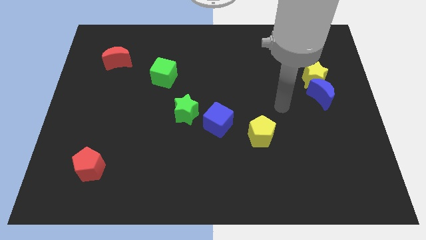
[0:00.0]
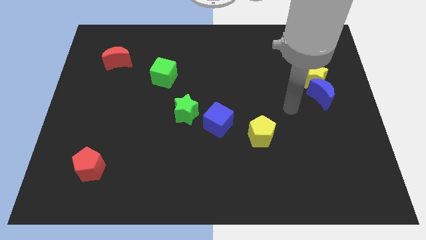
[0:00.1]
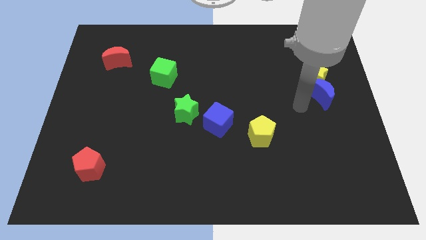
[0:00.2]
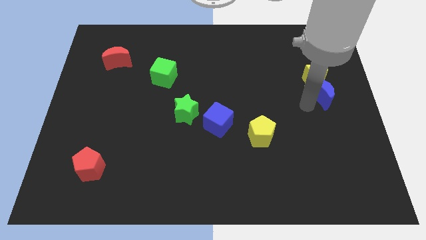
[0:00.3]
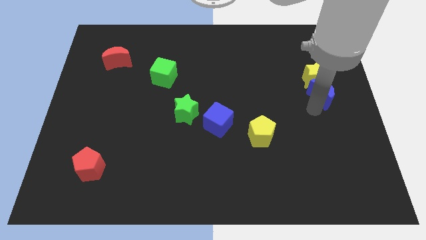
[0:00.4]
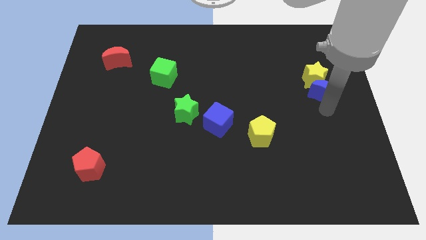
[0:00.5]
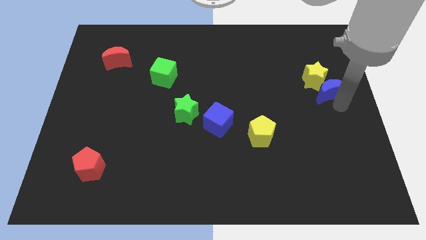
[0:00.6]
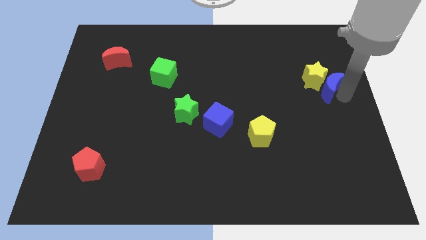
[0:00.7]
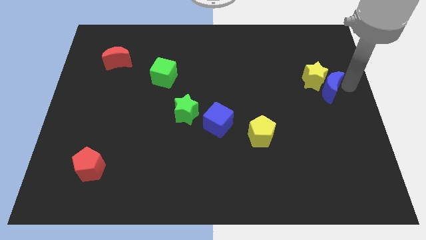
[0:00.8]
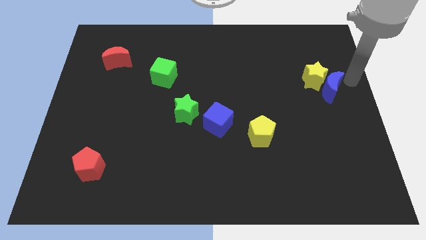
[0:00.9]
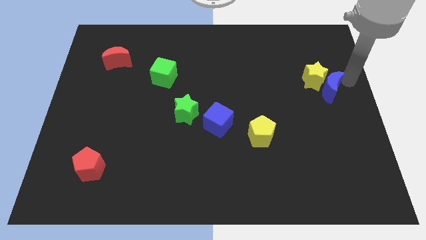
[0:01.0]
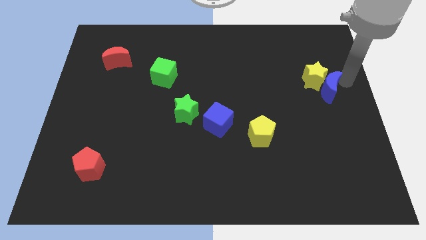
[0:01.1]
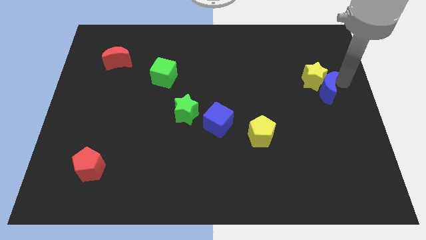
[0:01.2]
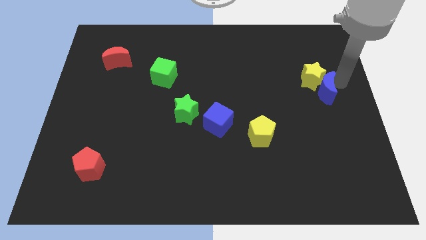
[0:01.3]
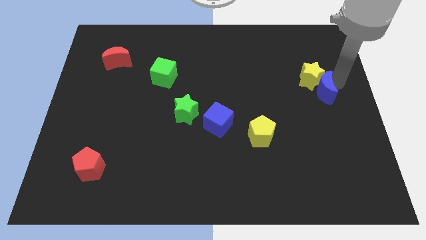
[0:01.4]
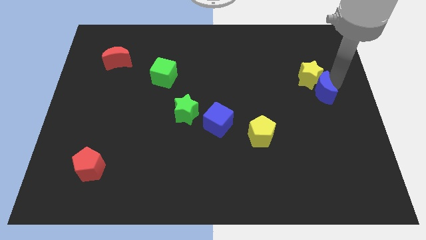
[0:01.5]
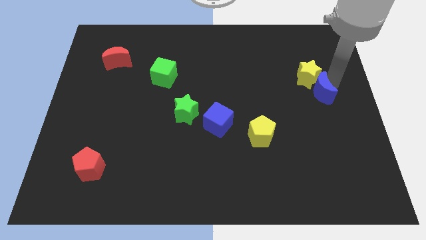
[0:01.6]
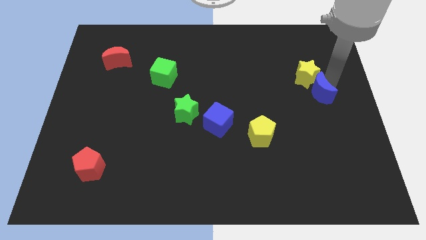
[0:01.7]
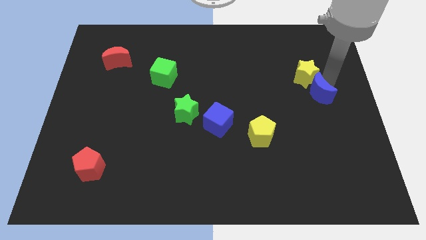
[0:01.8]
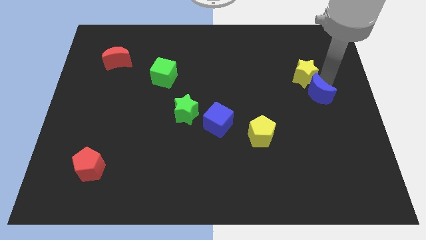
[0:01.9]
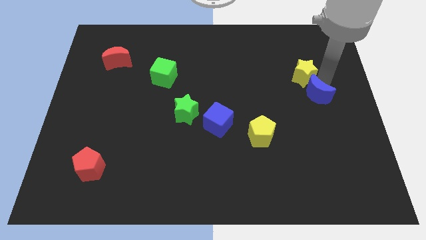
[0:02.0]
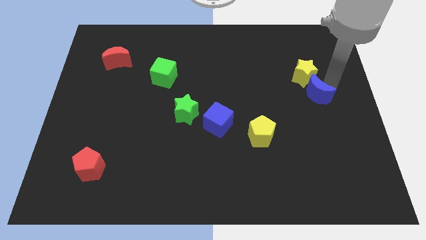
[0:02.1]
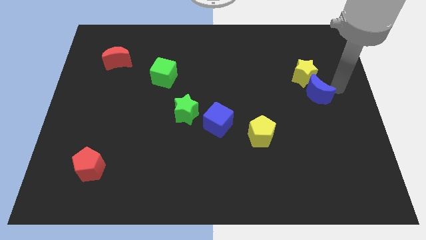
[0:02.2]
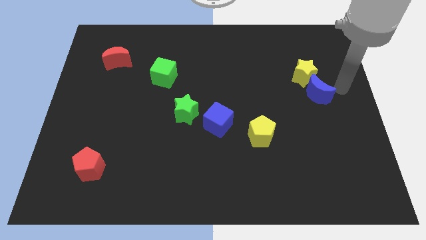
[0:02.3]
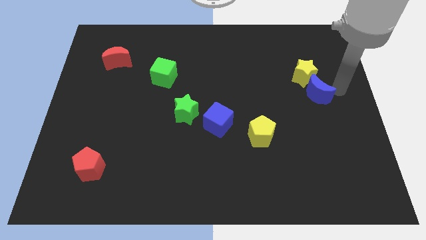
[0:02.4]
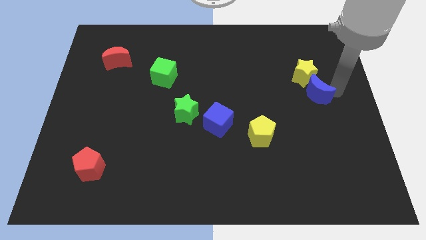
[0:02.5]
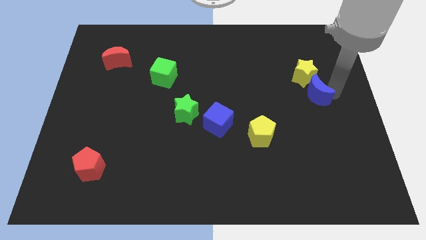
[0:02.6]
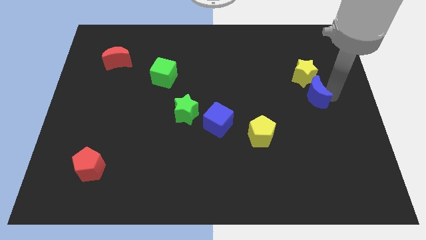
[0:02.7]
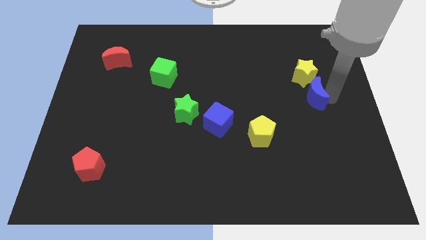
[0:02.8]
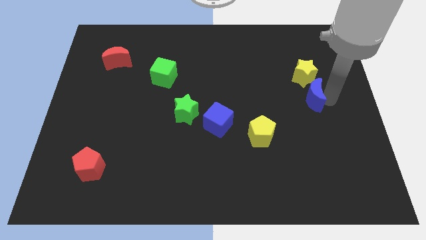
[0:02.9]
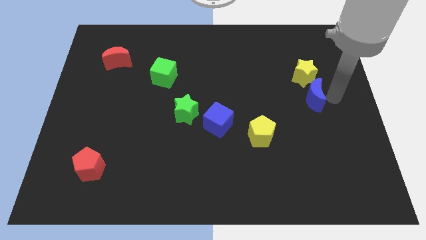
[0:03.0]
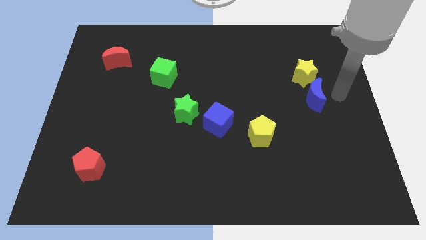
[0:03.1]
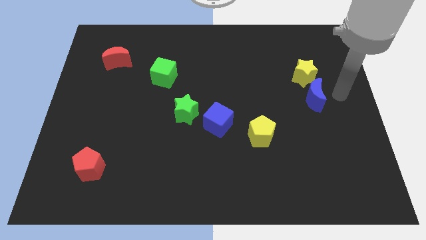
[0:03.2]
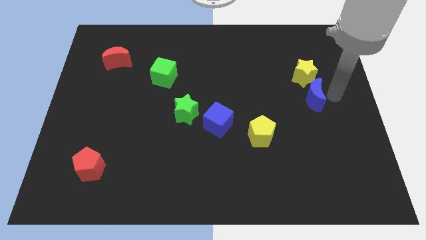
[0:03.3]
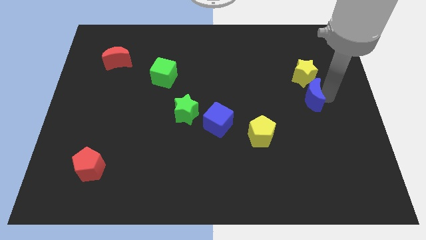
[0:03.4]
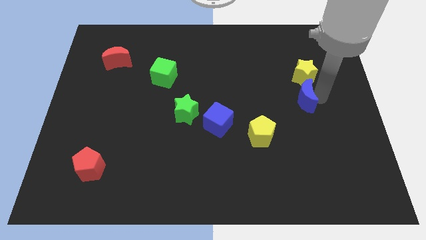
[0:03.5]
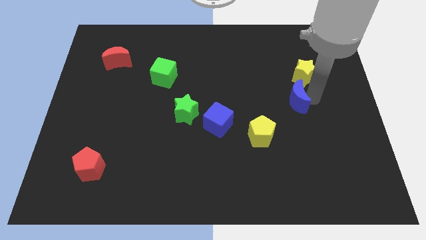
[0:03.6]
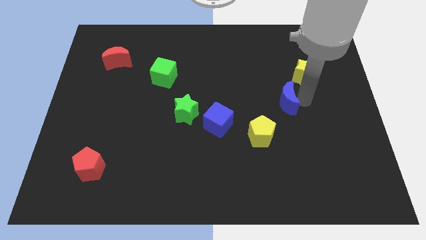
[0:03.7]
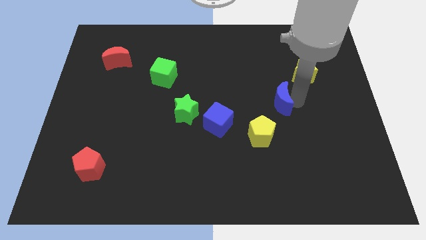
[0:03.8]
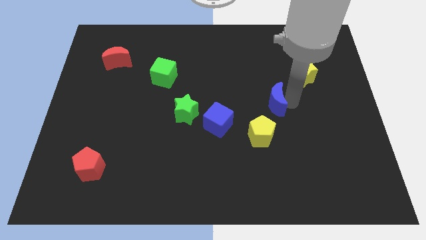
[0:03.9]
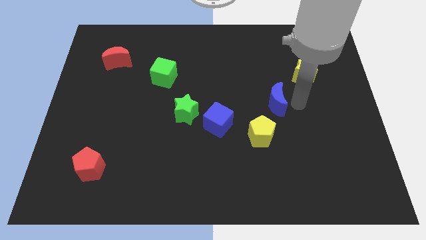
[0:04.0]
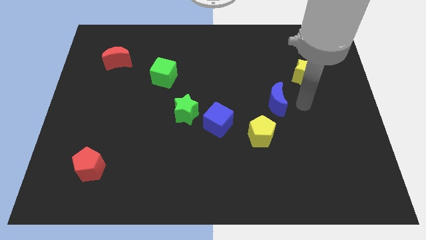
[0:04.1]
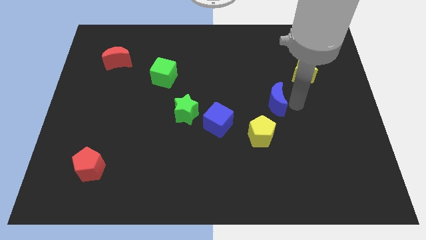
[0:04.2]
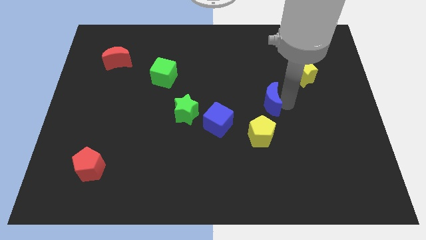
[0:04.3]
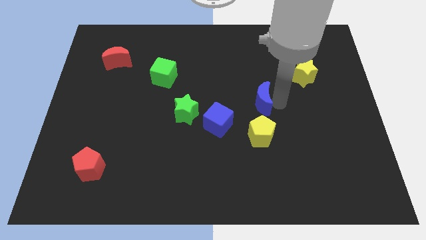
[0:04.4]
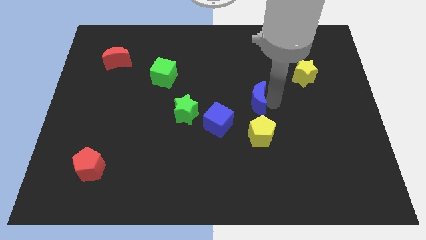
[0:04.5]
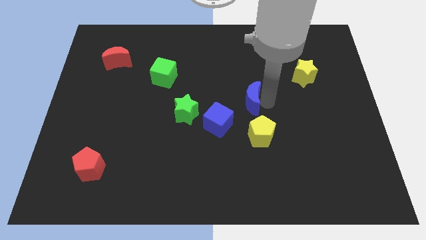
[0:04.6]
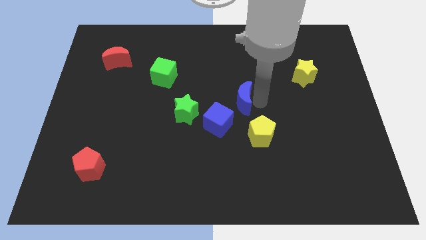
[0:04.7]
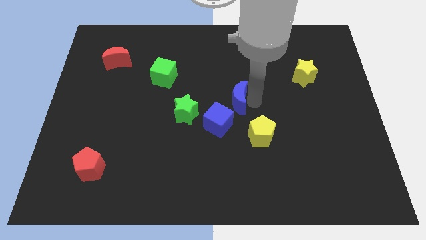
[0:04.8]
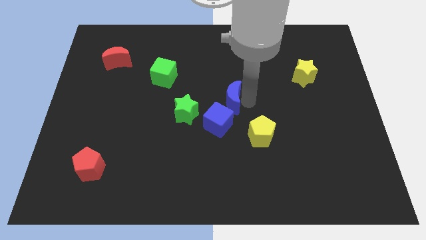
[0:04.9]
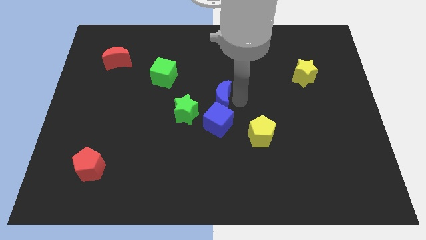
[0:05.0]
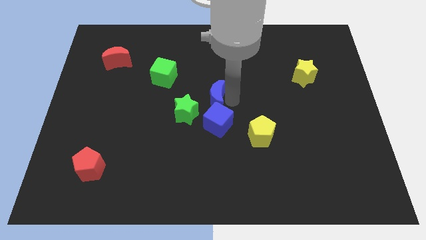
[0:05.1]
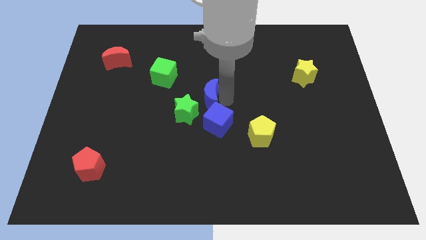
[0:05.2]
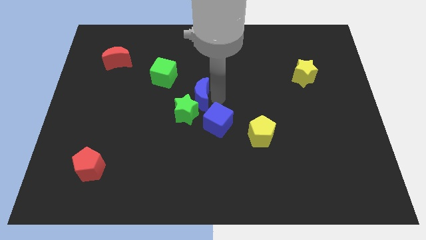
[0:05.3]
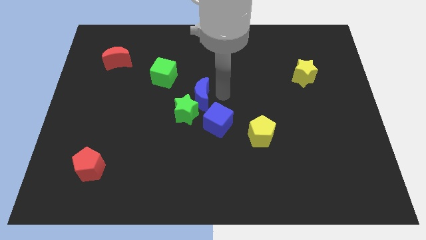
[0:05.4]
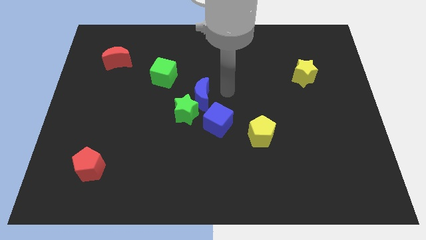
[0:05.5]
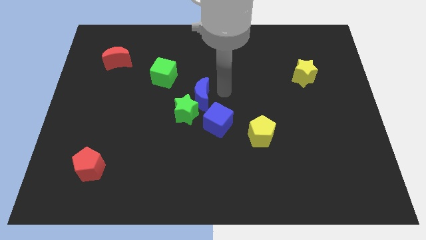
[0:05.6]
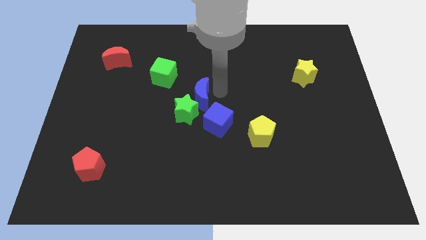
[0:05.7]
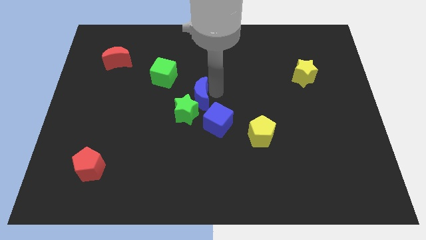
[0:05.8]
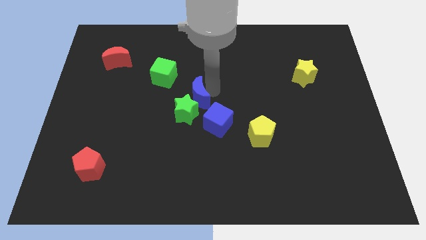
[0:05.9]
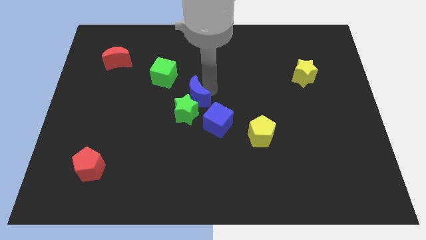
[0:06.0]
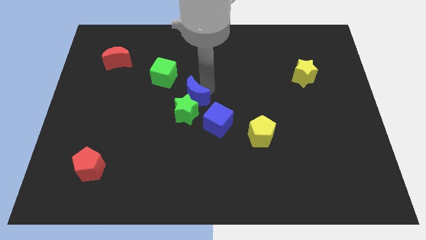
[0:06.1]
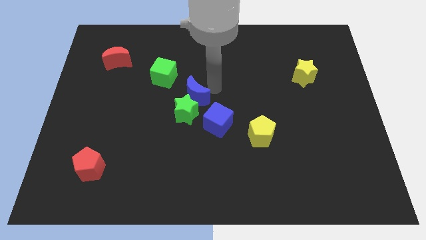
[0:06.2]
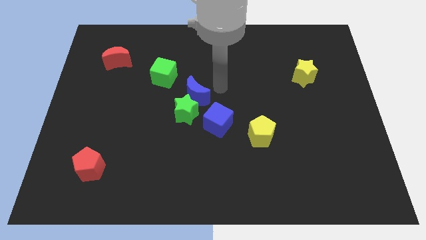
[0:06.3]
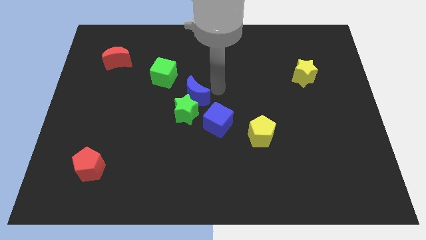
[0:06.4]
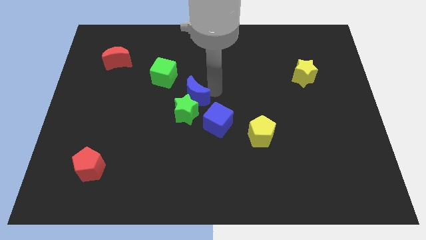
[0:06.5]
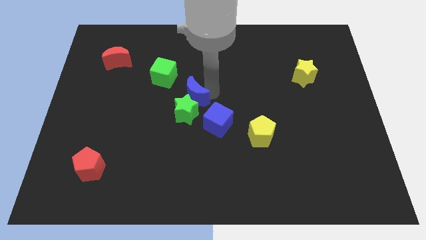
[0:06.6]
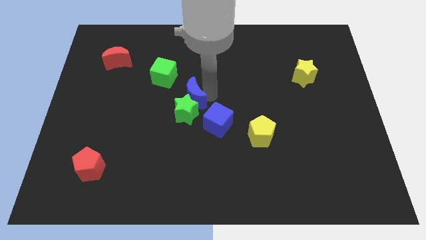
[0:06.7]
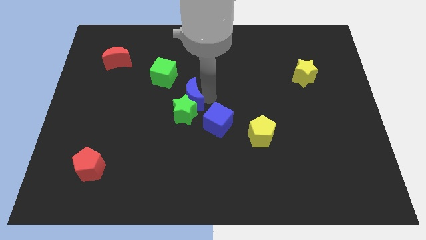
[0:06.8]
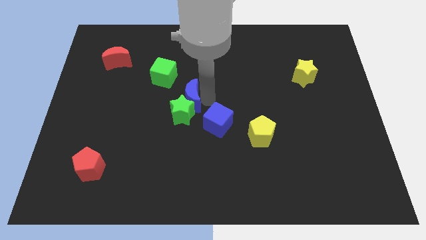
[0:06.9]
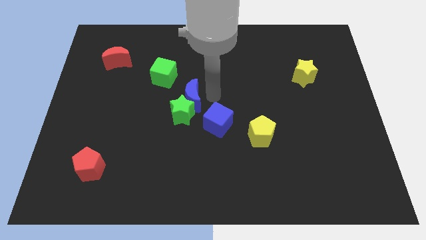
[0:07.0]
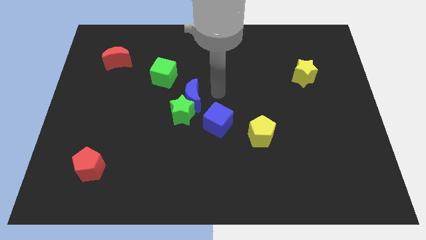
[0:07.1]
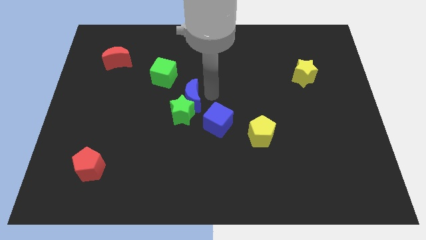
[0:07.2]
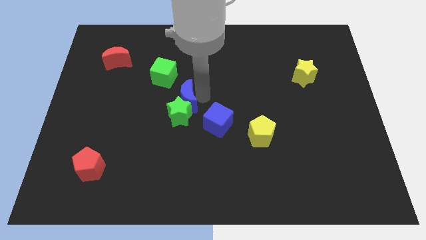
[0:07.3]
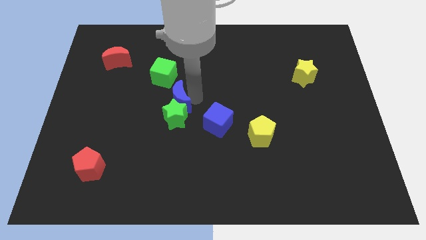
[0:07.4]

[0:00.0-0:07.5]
move the blue moon below the green cube
